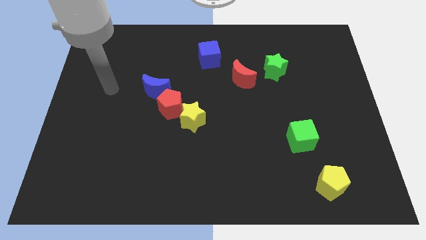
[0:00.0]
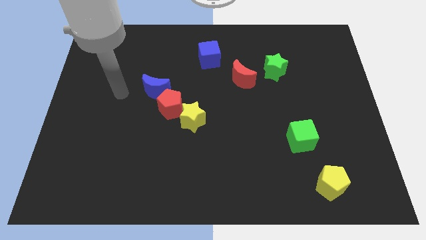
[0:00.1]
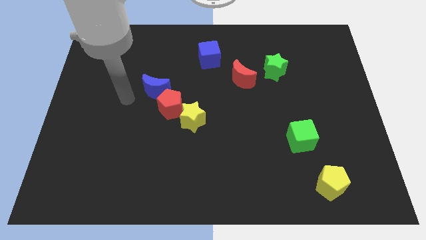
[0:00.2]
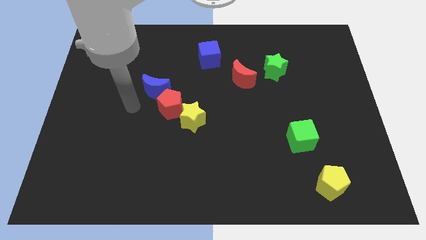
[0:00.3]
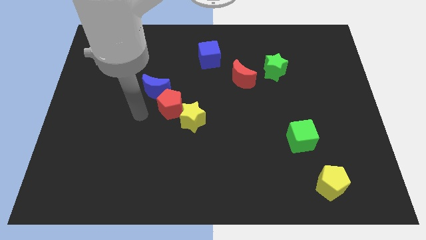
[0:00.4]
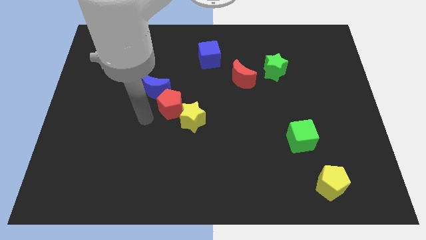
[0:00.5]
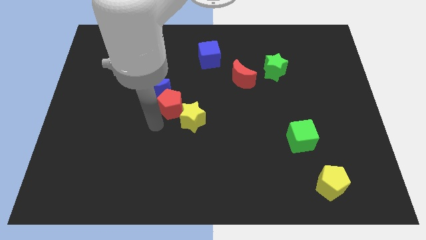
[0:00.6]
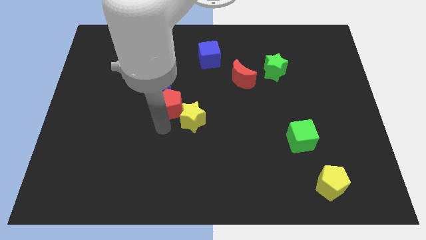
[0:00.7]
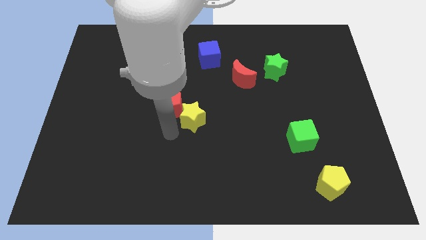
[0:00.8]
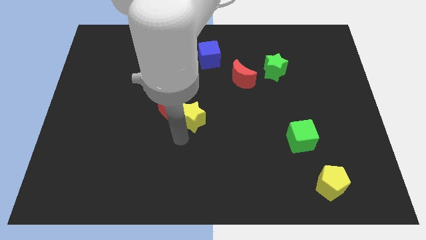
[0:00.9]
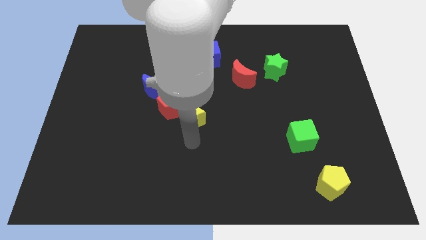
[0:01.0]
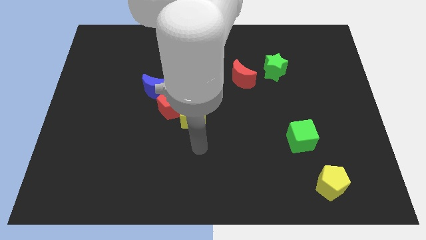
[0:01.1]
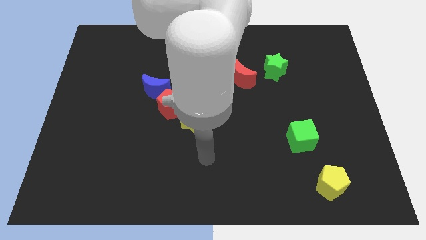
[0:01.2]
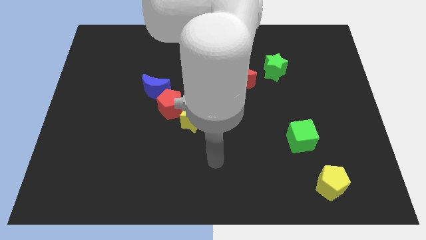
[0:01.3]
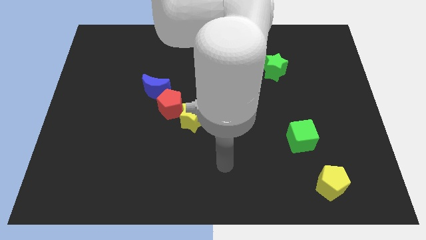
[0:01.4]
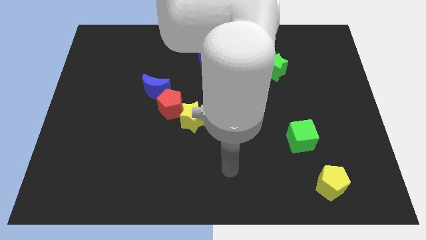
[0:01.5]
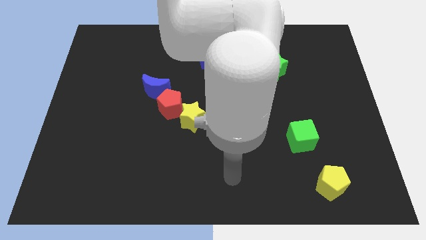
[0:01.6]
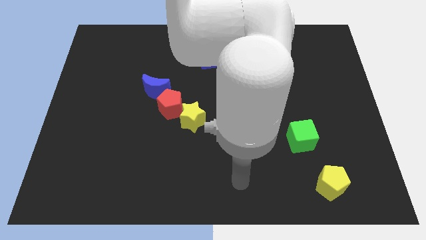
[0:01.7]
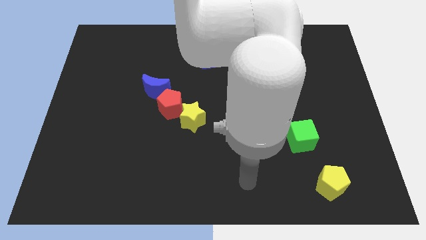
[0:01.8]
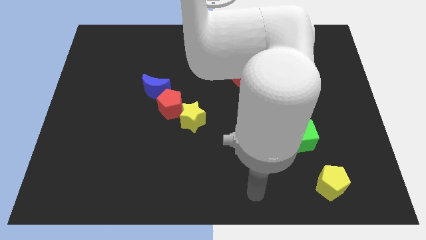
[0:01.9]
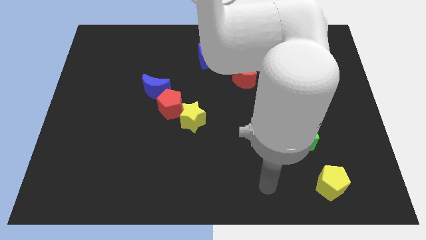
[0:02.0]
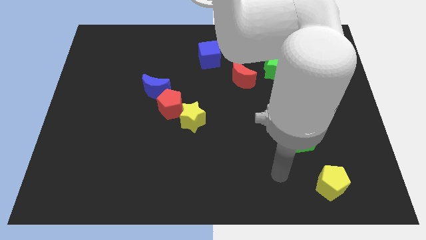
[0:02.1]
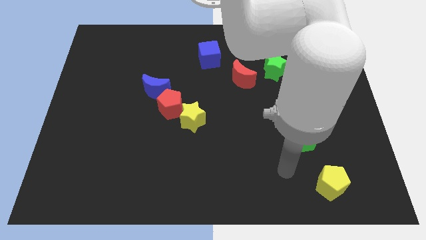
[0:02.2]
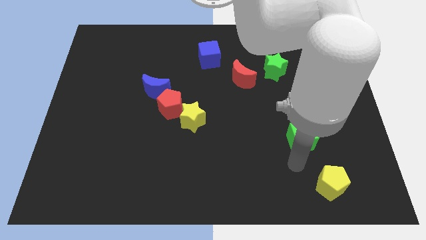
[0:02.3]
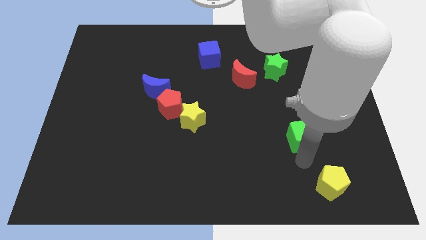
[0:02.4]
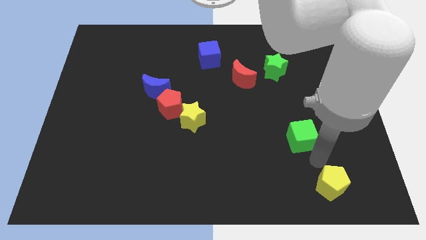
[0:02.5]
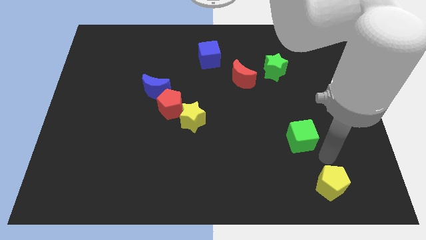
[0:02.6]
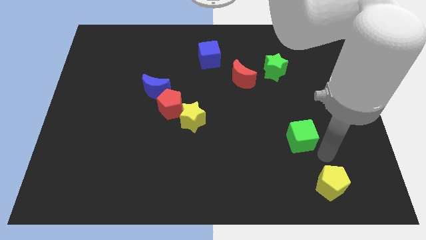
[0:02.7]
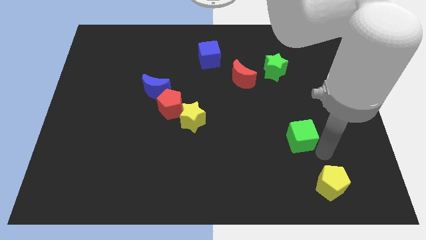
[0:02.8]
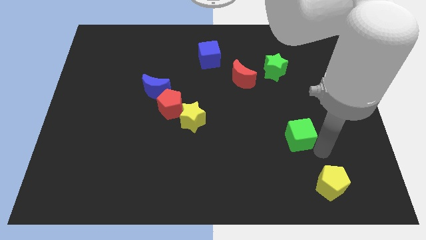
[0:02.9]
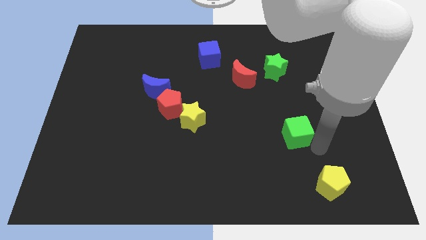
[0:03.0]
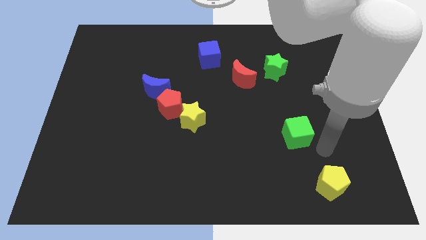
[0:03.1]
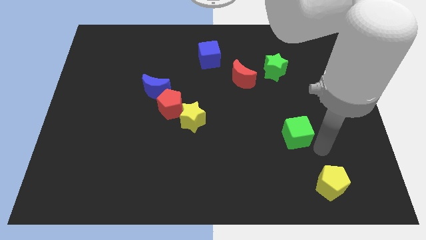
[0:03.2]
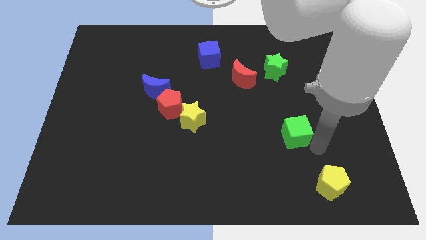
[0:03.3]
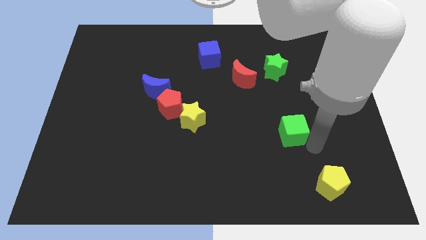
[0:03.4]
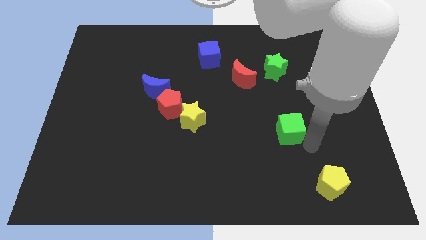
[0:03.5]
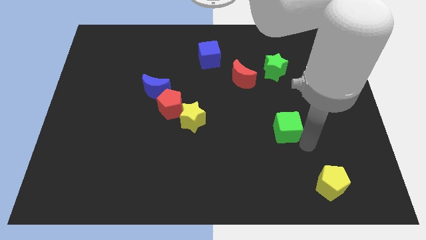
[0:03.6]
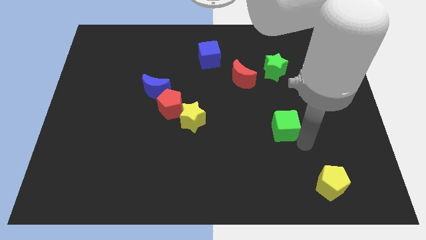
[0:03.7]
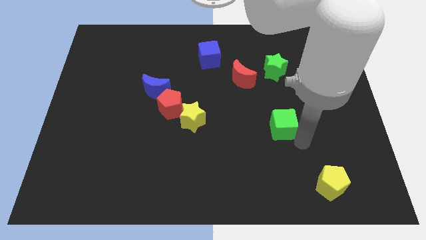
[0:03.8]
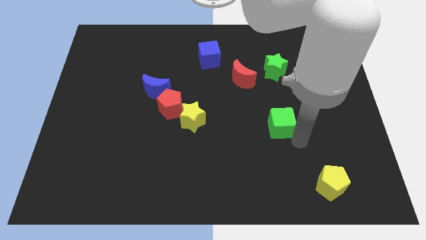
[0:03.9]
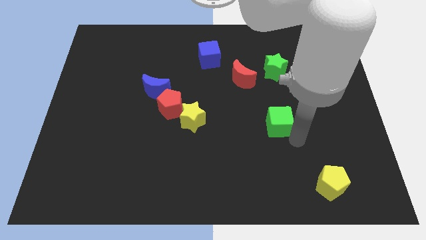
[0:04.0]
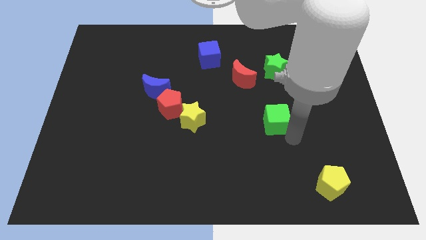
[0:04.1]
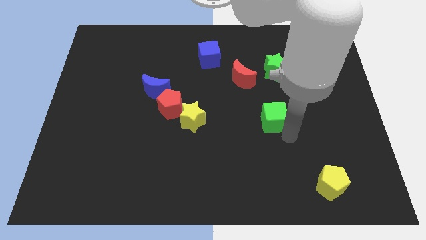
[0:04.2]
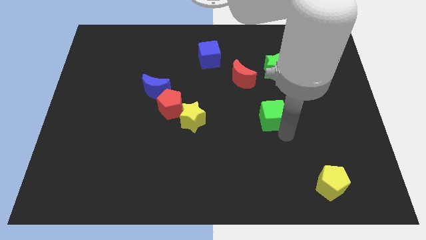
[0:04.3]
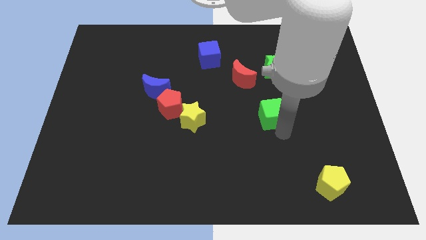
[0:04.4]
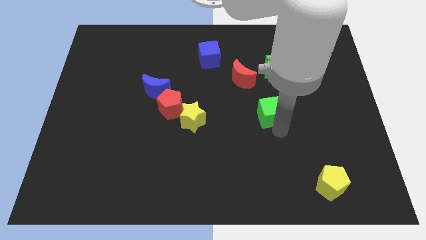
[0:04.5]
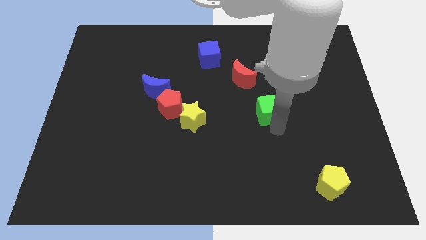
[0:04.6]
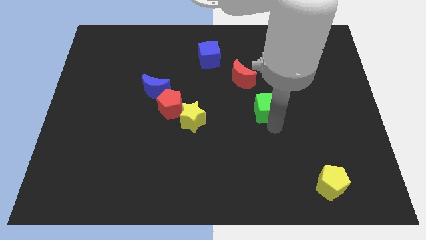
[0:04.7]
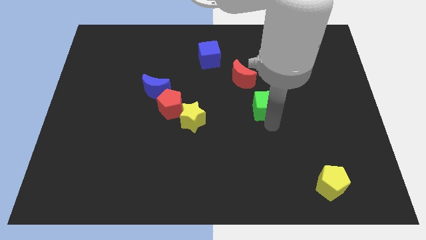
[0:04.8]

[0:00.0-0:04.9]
put the green cube to the bottom of the red moon

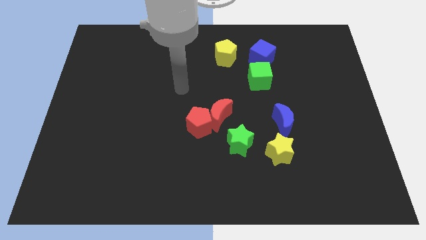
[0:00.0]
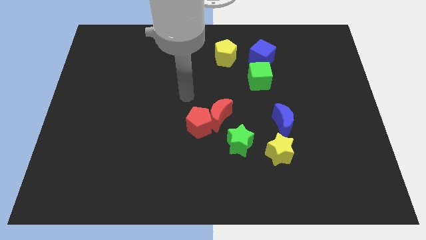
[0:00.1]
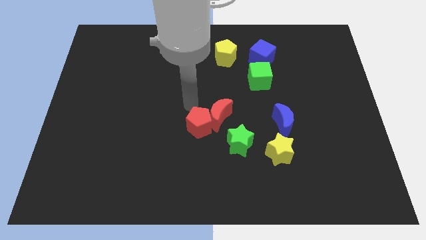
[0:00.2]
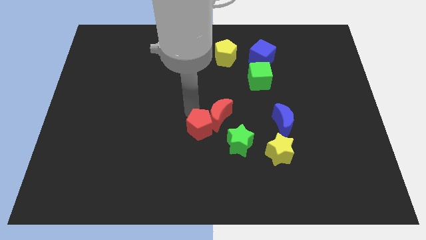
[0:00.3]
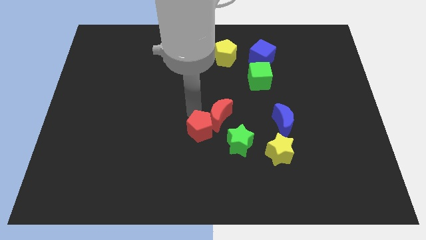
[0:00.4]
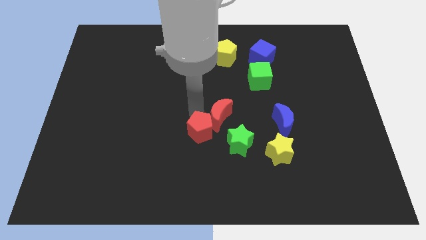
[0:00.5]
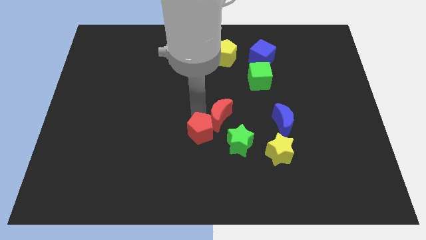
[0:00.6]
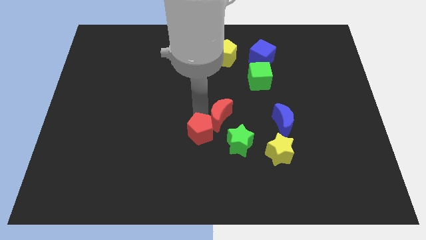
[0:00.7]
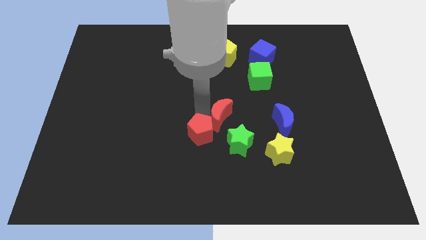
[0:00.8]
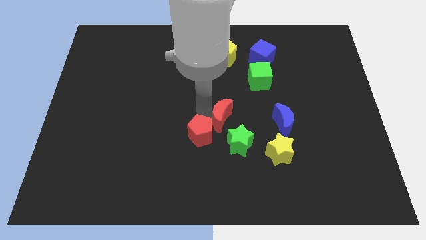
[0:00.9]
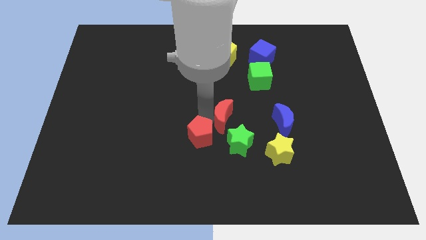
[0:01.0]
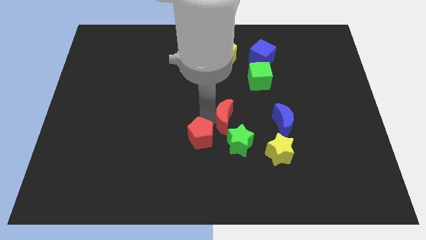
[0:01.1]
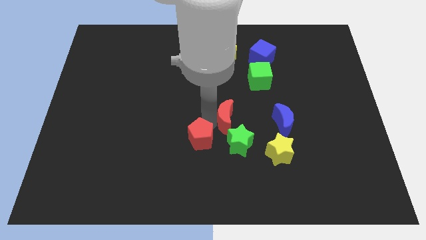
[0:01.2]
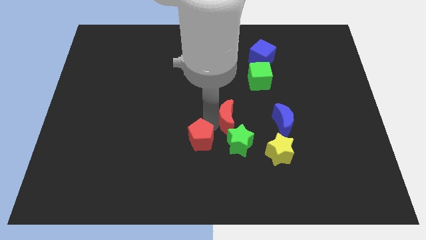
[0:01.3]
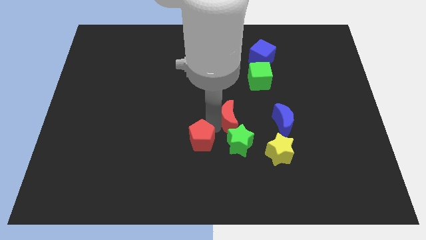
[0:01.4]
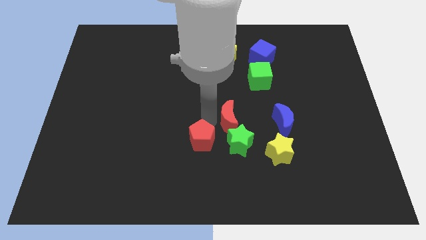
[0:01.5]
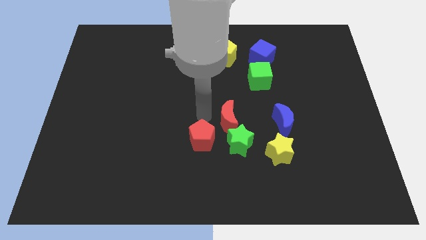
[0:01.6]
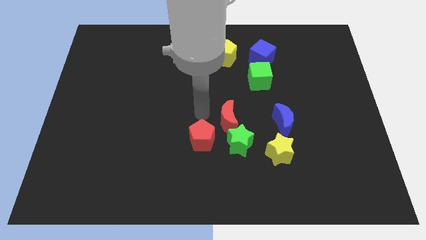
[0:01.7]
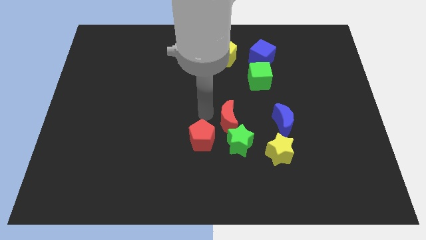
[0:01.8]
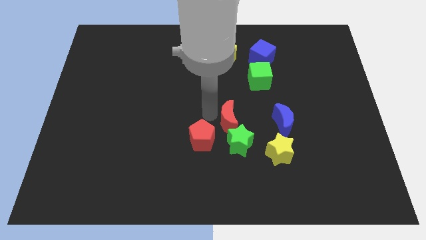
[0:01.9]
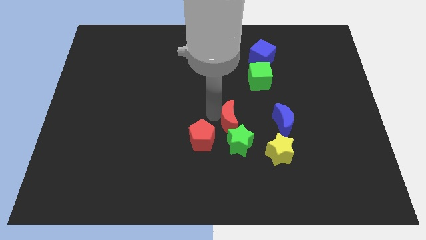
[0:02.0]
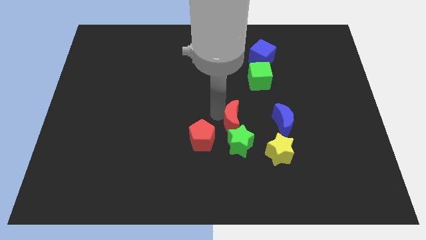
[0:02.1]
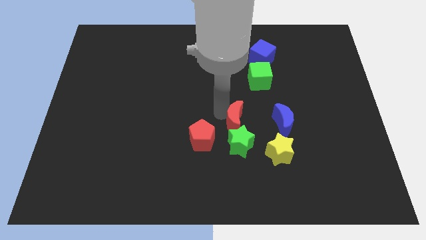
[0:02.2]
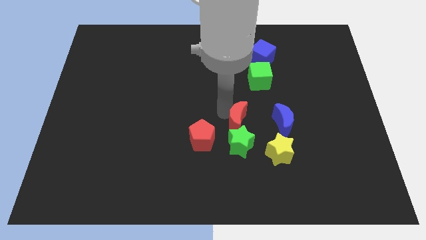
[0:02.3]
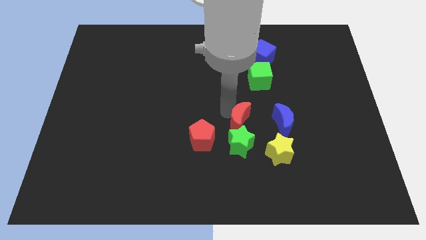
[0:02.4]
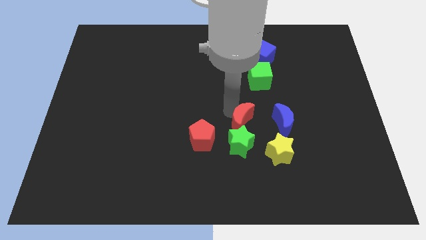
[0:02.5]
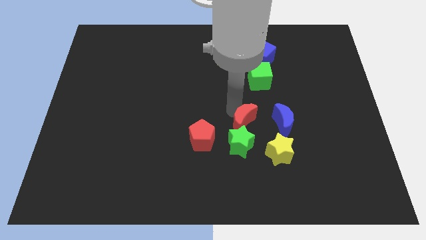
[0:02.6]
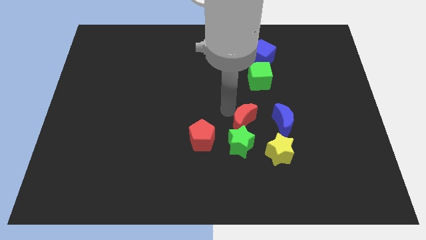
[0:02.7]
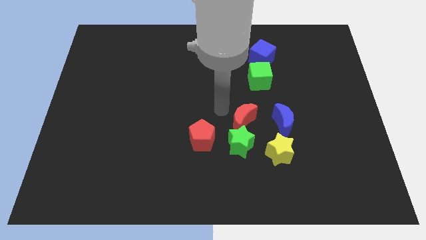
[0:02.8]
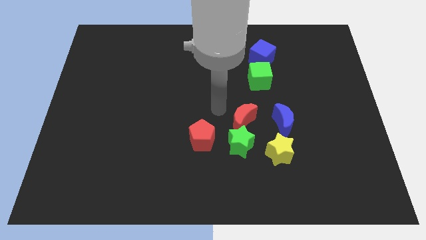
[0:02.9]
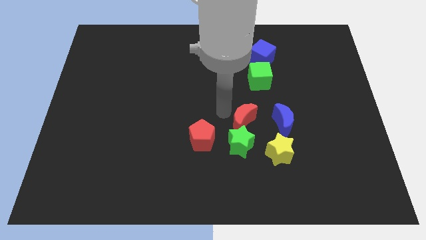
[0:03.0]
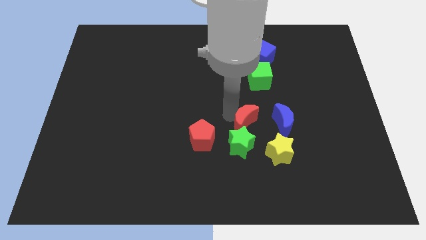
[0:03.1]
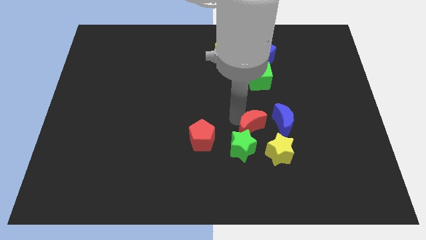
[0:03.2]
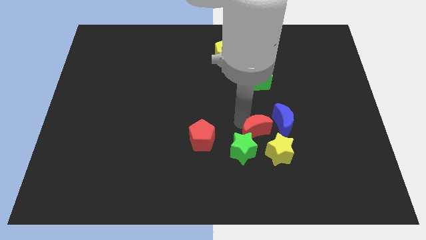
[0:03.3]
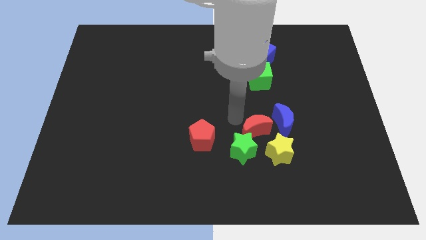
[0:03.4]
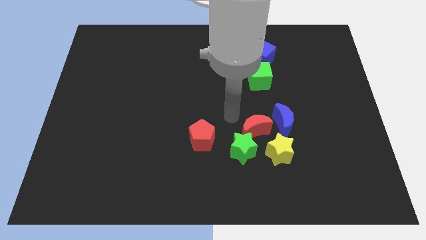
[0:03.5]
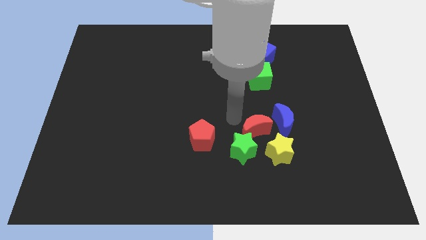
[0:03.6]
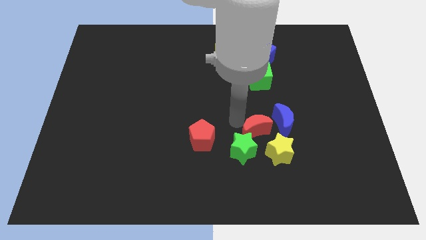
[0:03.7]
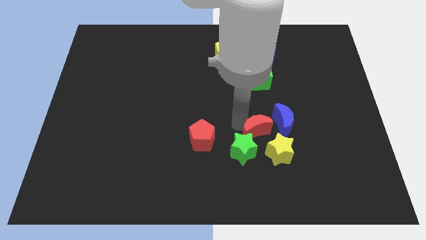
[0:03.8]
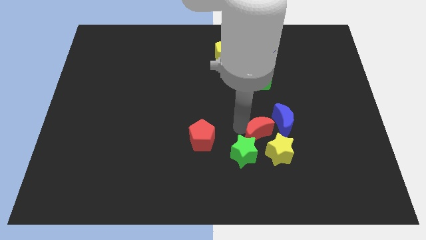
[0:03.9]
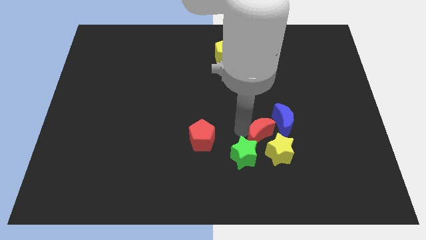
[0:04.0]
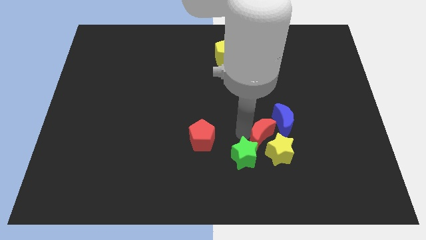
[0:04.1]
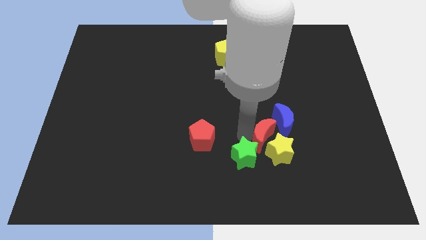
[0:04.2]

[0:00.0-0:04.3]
move the red moon to the right side of the green star
